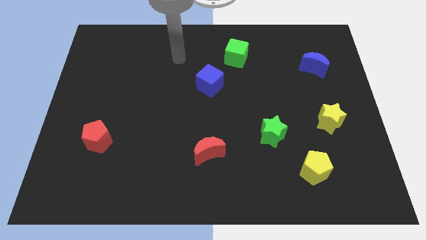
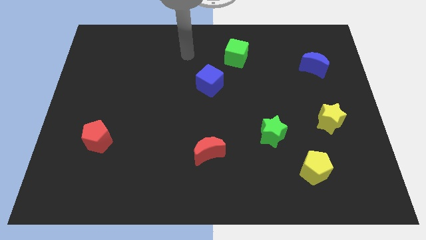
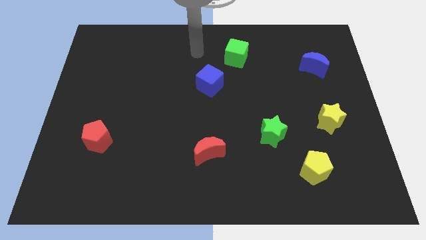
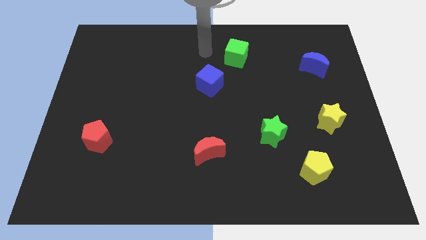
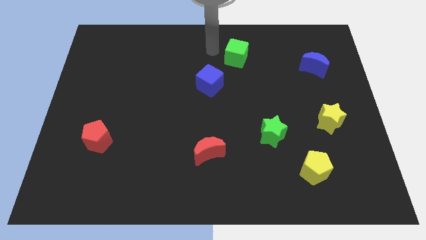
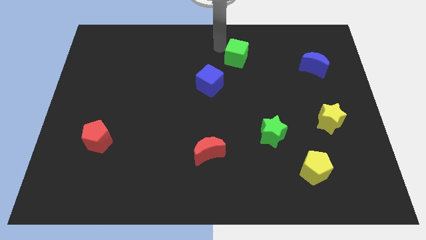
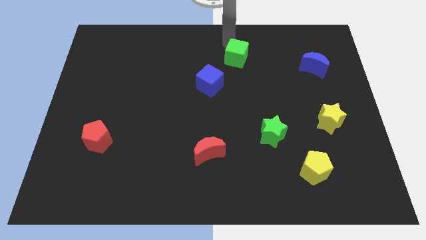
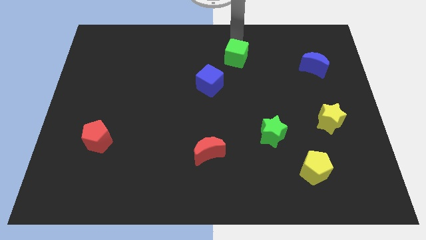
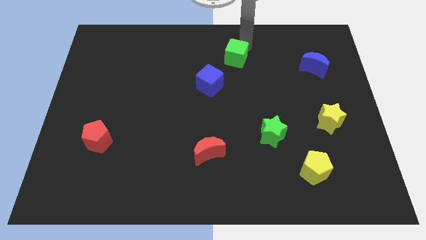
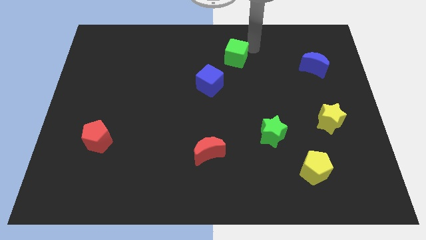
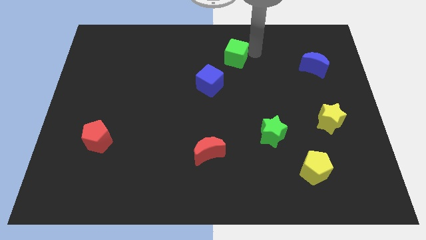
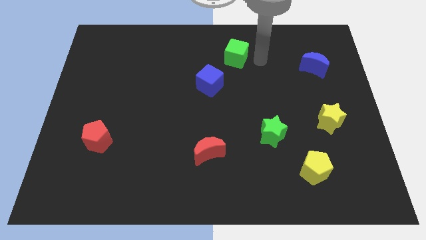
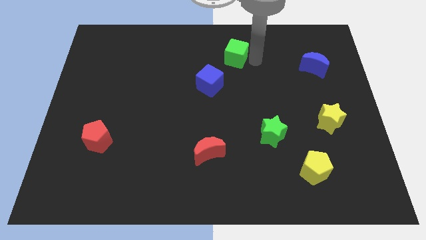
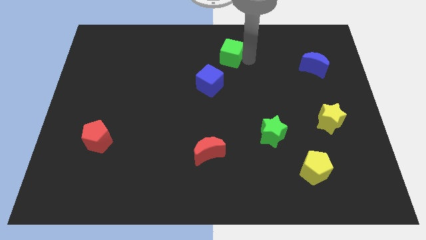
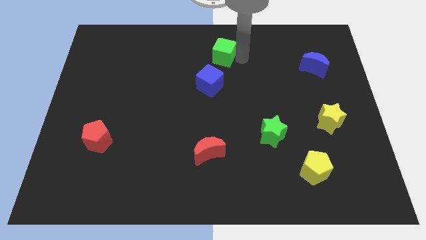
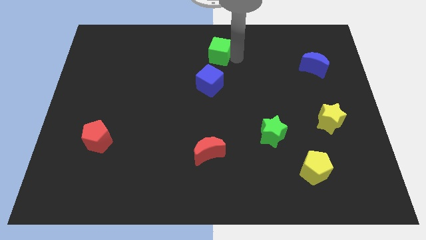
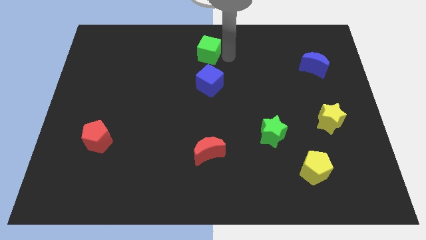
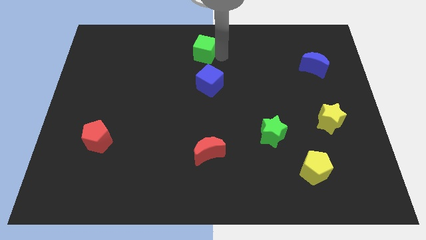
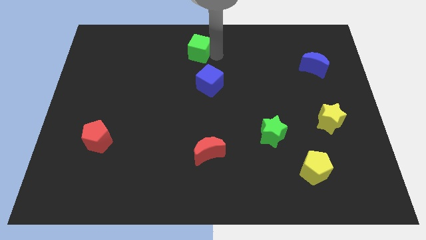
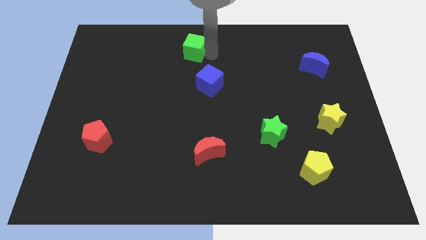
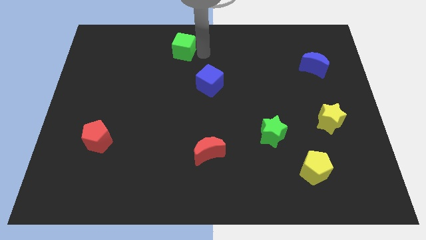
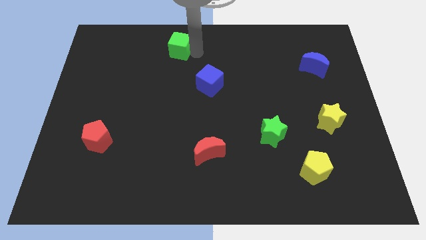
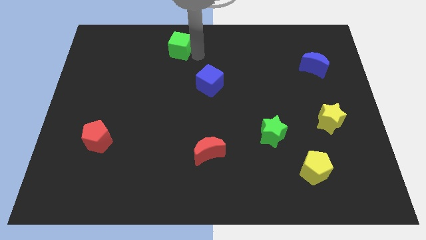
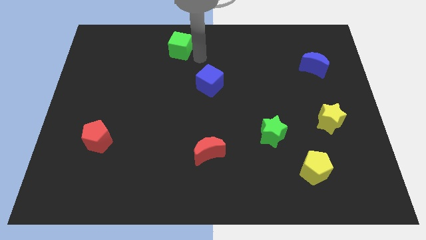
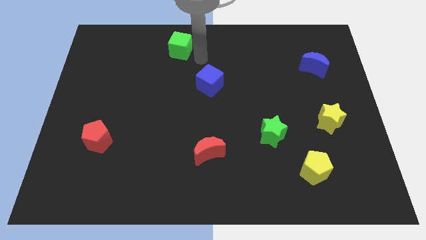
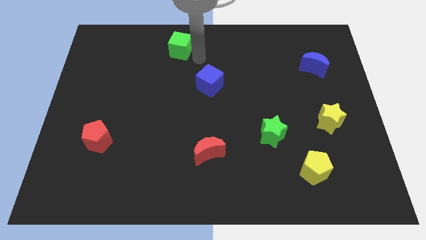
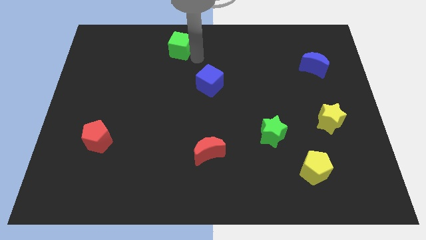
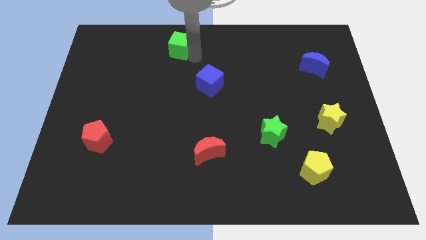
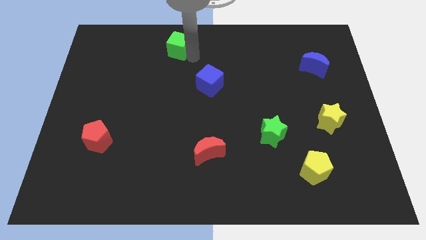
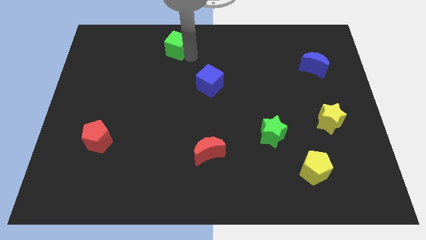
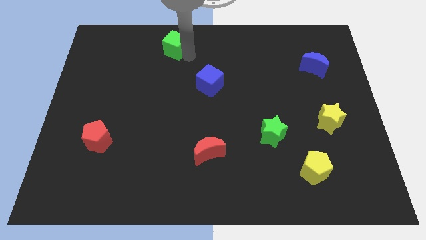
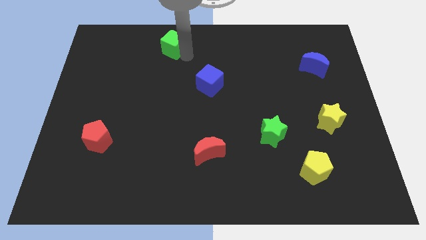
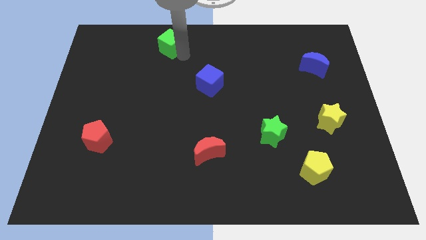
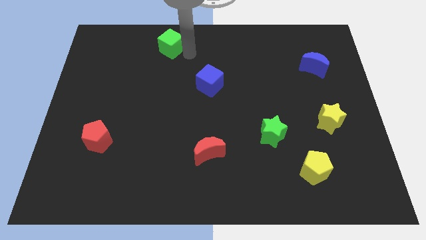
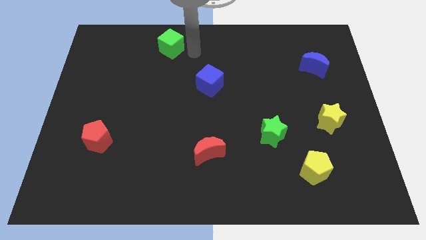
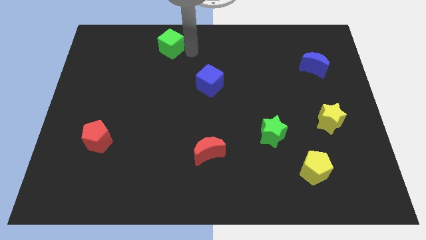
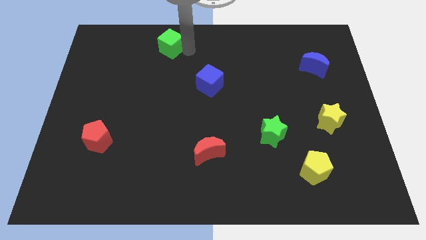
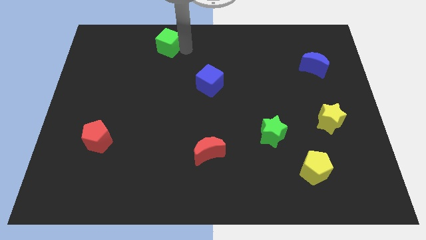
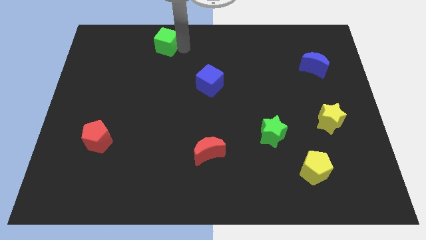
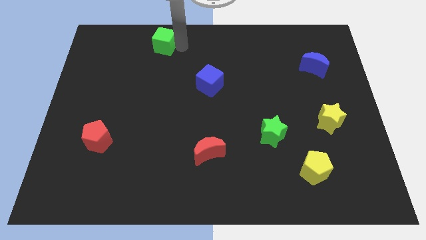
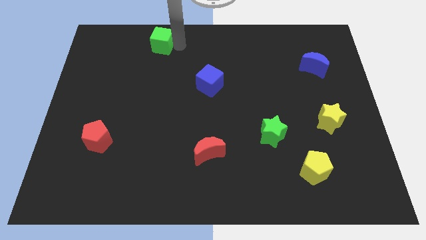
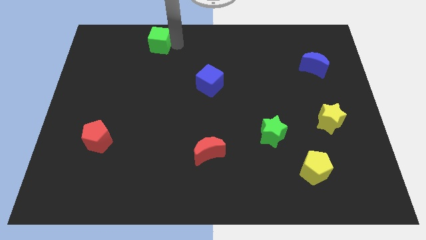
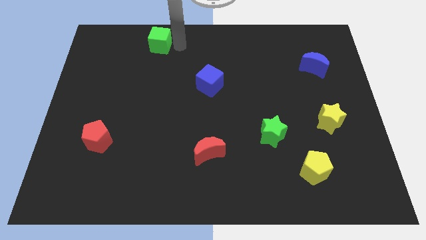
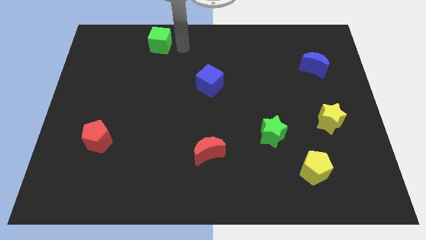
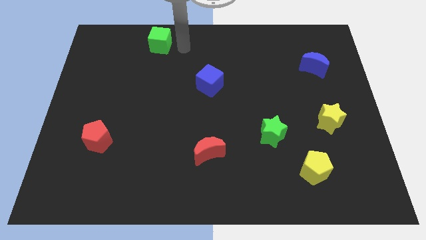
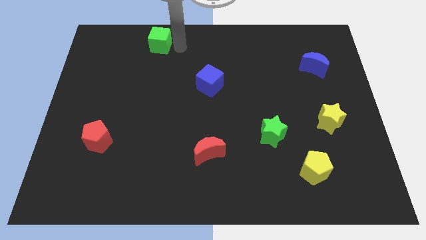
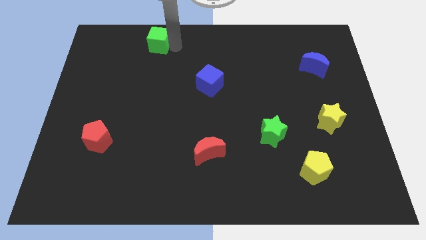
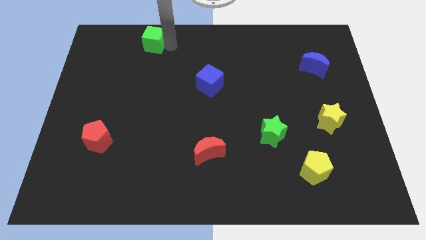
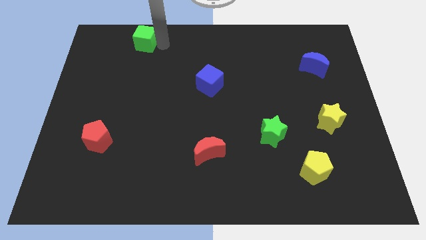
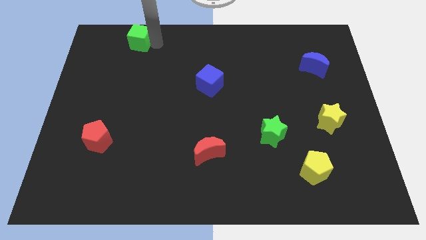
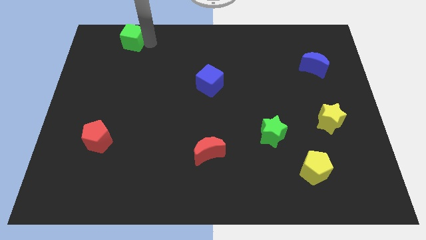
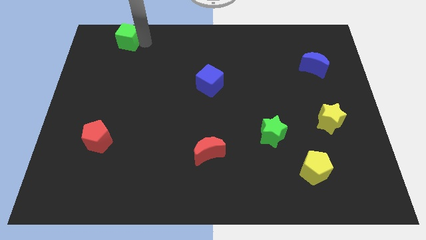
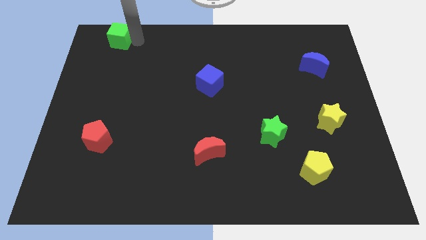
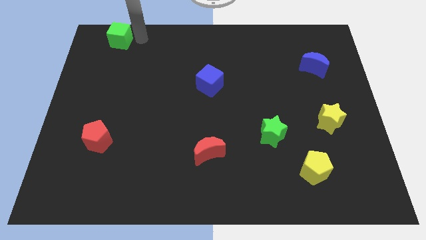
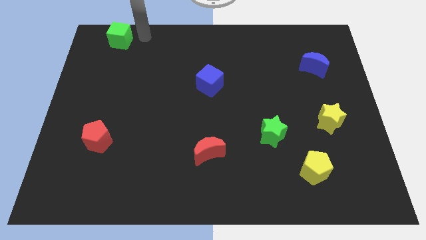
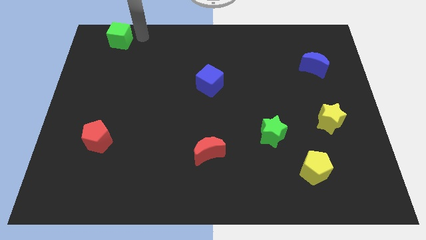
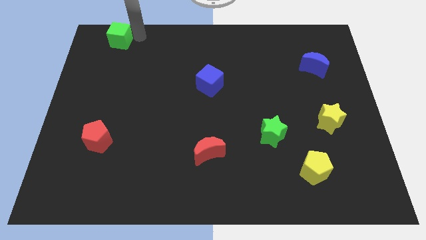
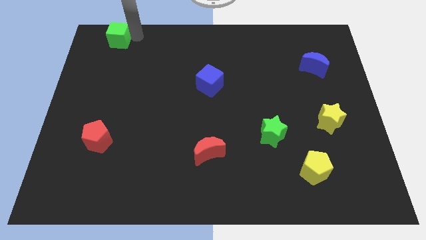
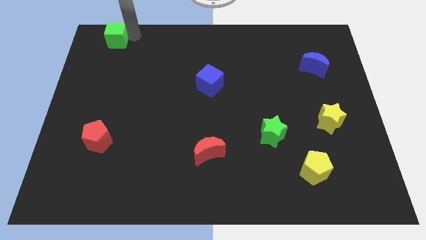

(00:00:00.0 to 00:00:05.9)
move the green cube to the top left
